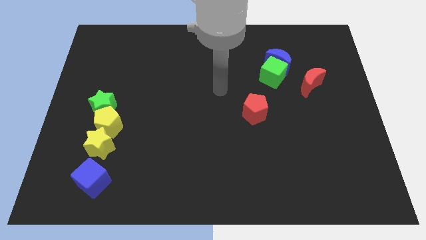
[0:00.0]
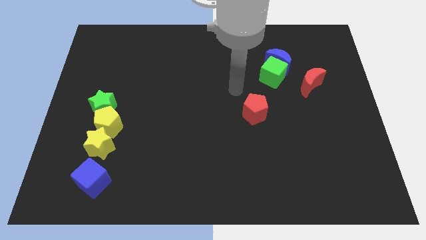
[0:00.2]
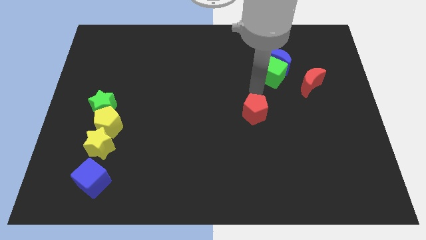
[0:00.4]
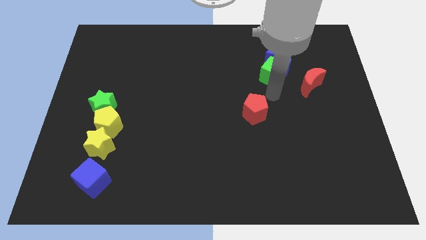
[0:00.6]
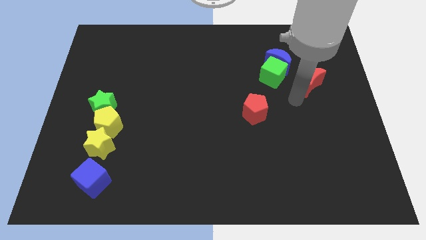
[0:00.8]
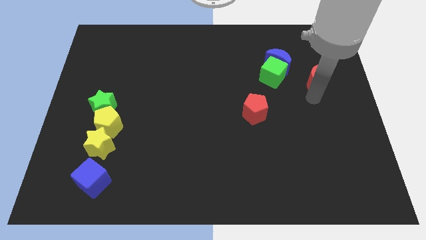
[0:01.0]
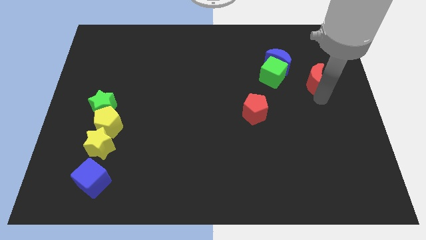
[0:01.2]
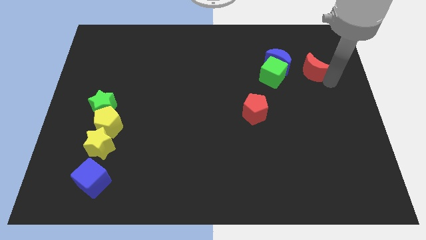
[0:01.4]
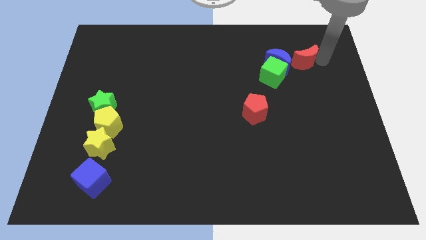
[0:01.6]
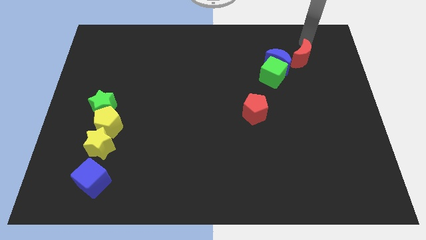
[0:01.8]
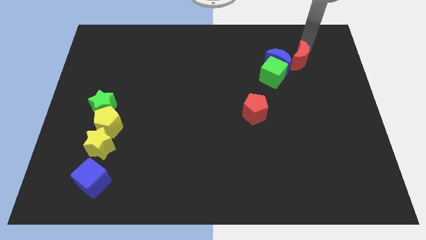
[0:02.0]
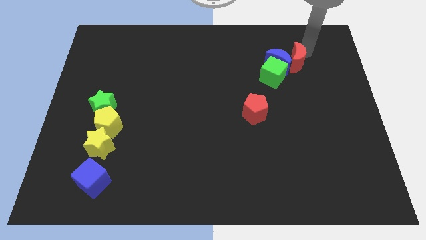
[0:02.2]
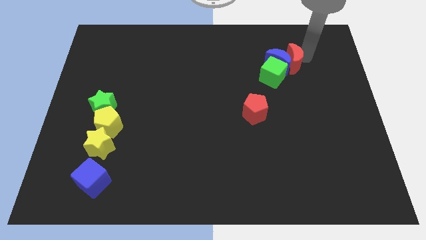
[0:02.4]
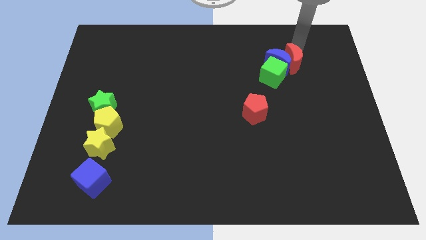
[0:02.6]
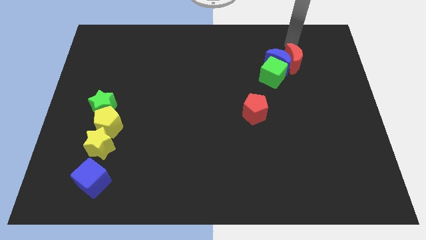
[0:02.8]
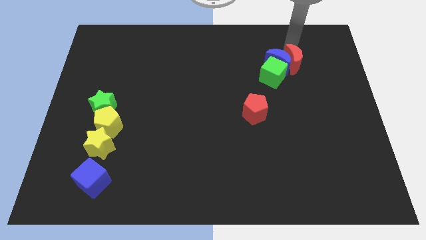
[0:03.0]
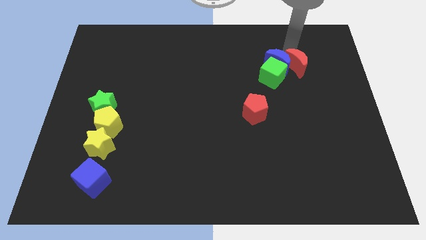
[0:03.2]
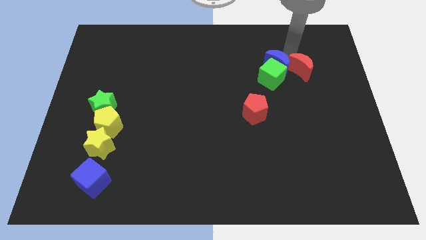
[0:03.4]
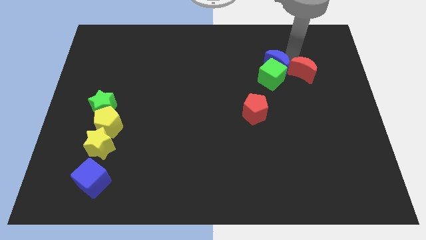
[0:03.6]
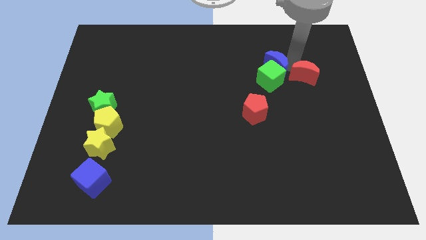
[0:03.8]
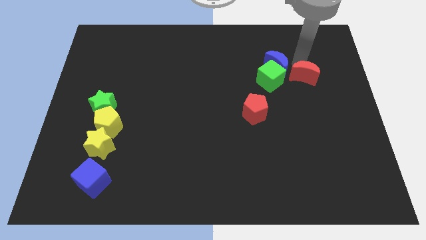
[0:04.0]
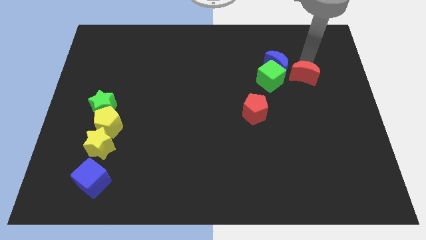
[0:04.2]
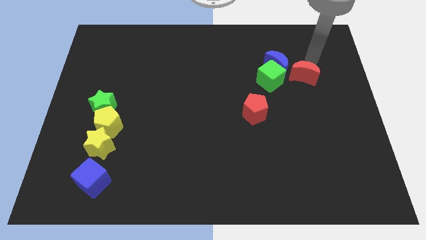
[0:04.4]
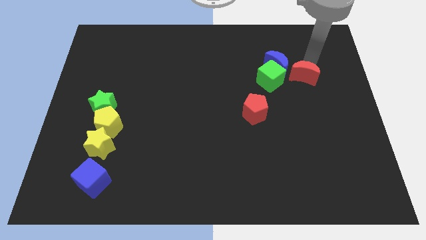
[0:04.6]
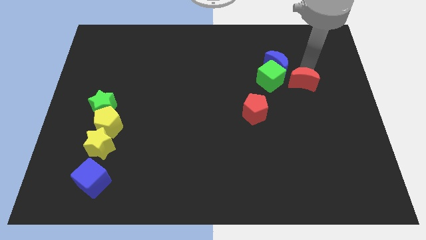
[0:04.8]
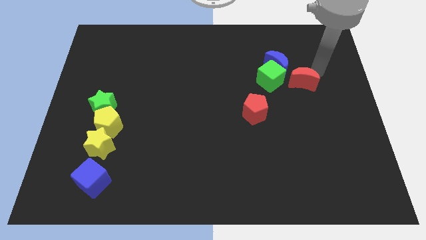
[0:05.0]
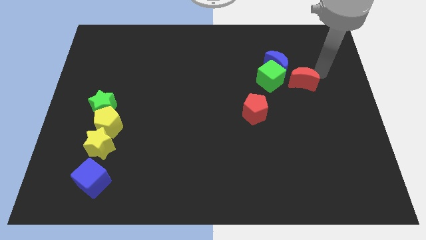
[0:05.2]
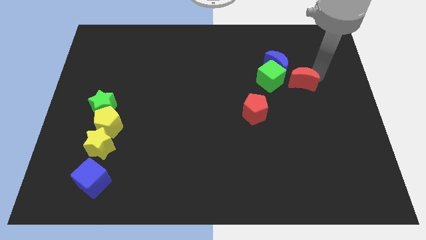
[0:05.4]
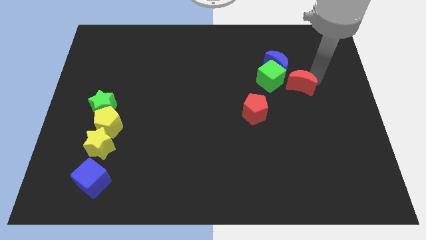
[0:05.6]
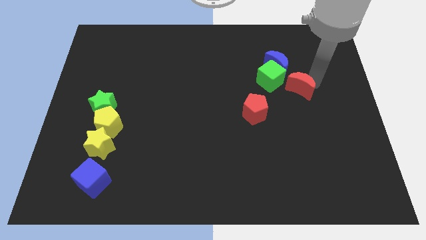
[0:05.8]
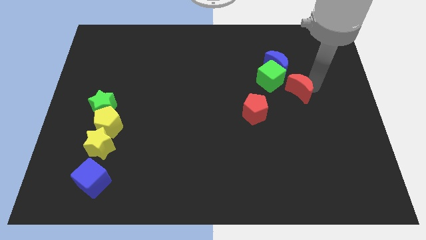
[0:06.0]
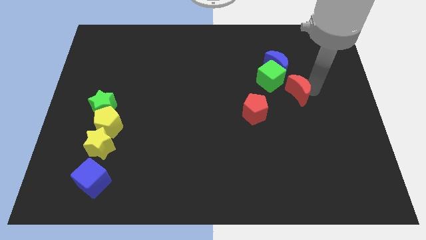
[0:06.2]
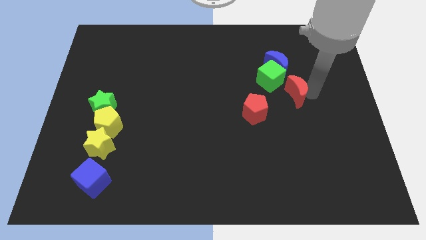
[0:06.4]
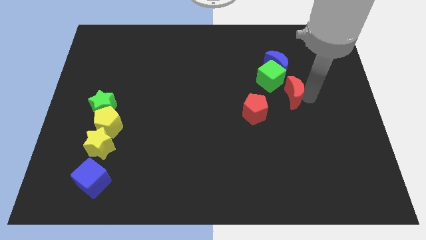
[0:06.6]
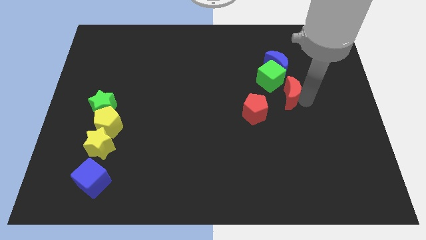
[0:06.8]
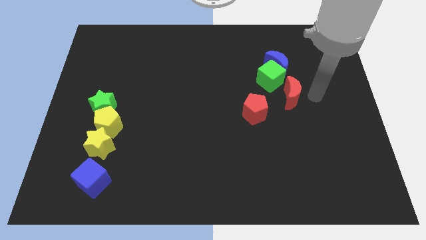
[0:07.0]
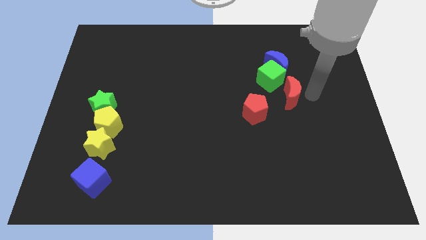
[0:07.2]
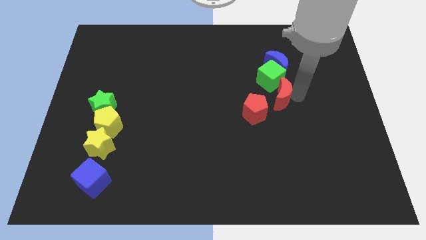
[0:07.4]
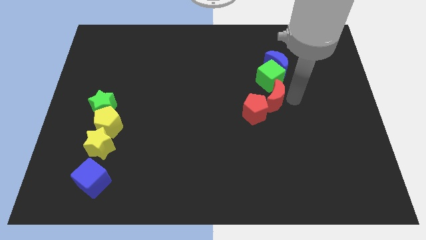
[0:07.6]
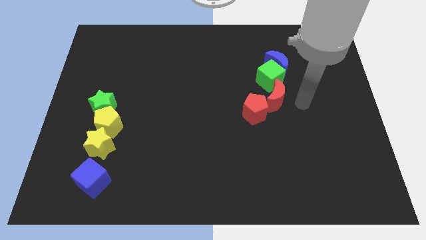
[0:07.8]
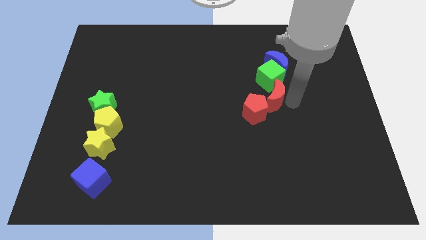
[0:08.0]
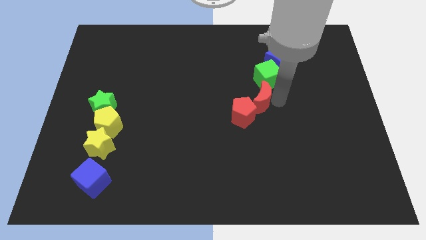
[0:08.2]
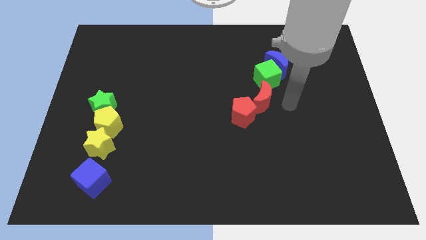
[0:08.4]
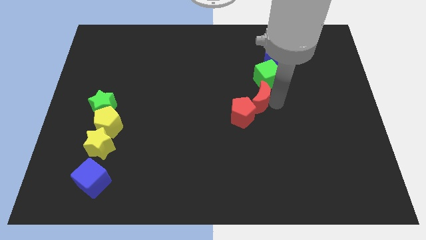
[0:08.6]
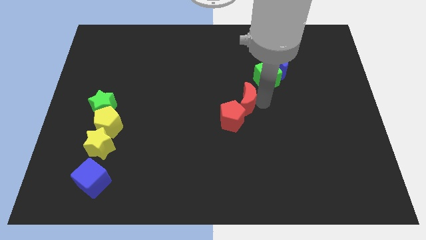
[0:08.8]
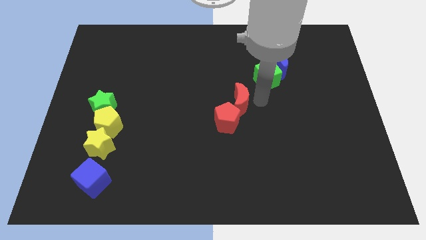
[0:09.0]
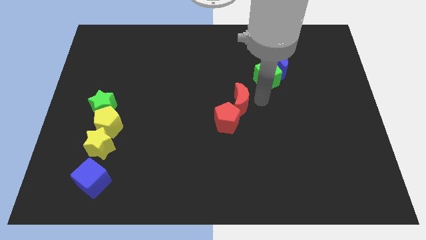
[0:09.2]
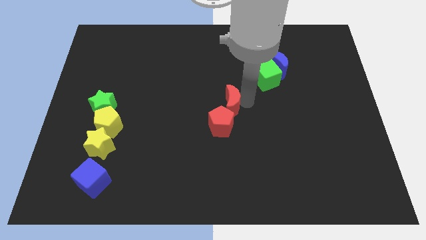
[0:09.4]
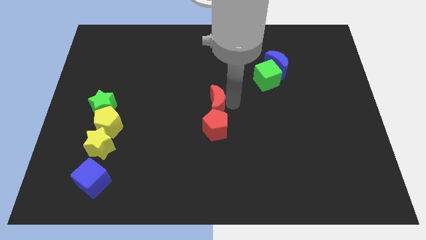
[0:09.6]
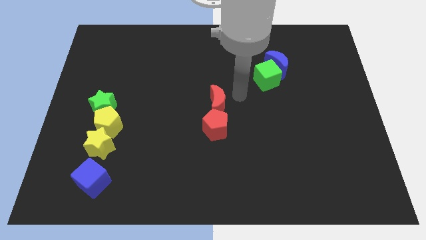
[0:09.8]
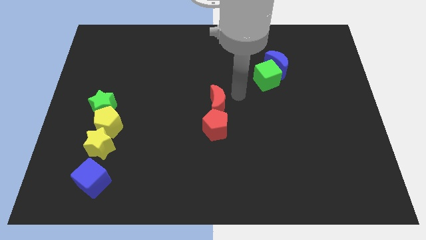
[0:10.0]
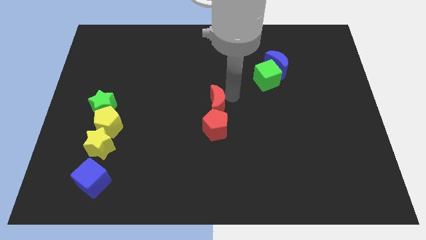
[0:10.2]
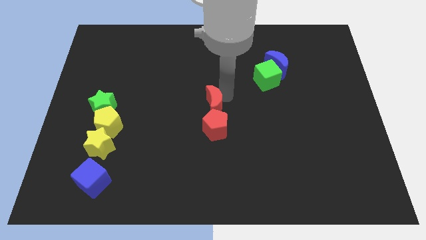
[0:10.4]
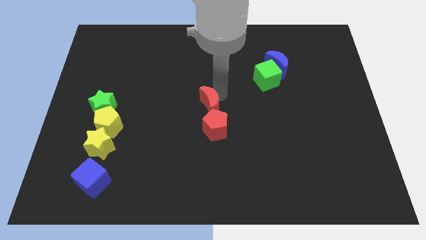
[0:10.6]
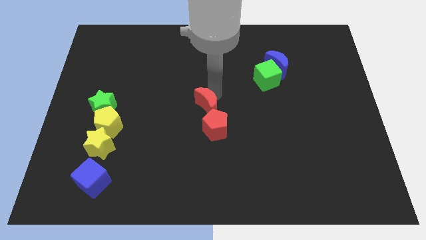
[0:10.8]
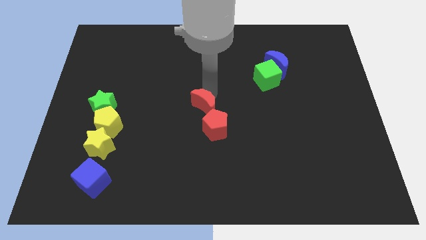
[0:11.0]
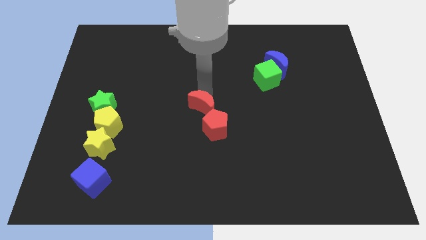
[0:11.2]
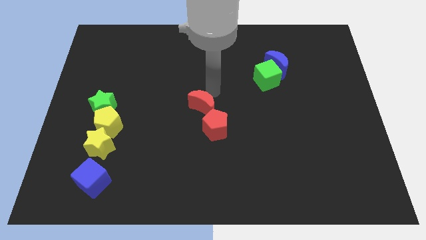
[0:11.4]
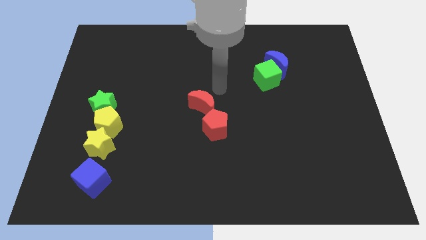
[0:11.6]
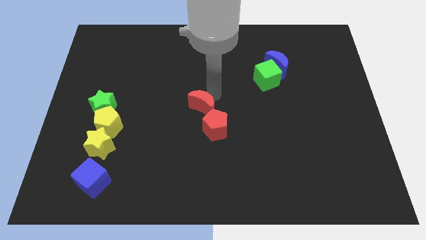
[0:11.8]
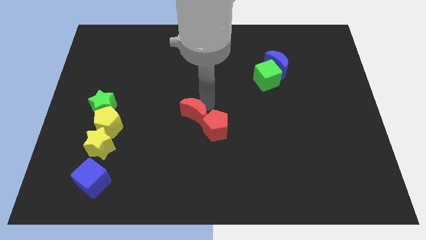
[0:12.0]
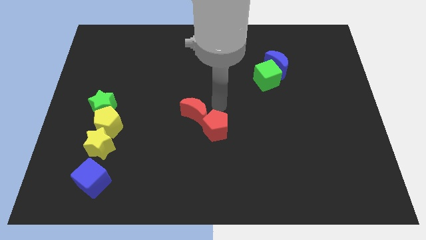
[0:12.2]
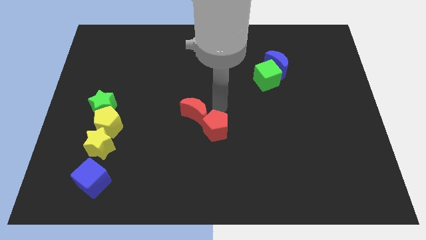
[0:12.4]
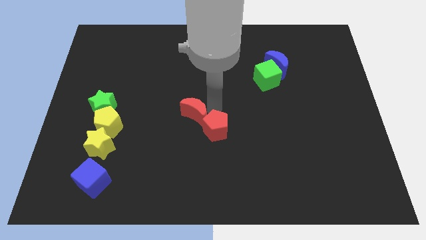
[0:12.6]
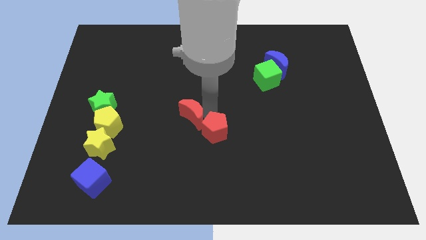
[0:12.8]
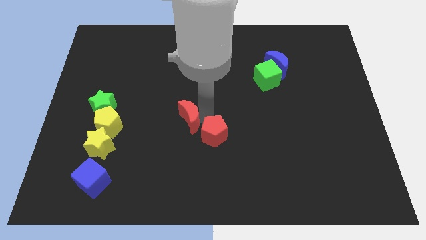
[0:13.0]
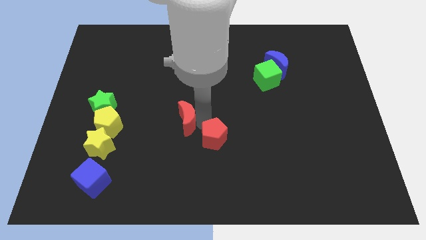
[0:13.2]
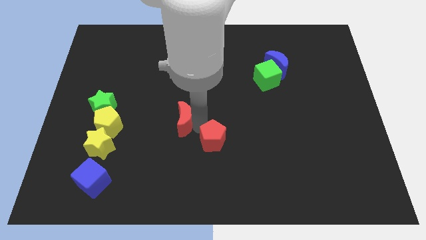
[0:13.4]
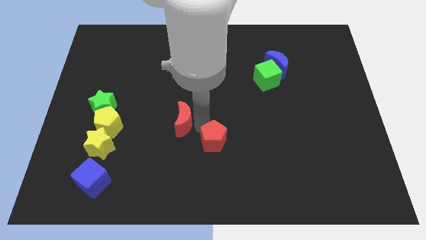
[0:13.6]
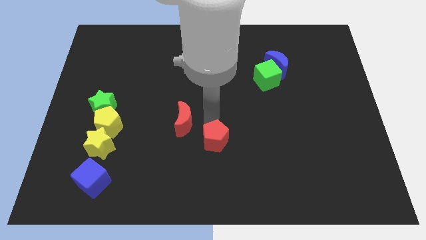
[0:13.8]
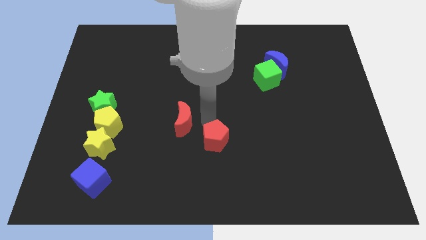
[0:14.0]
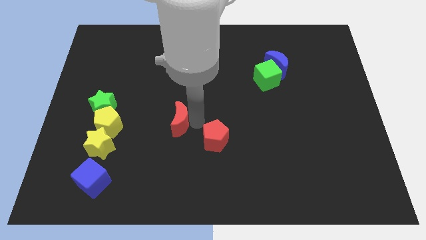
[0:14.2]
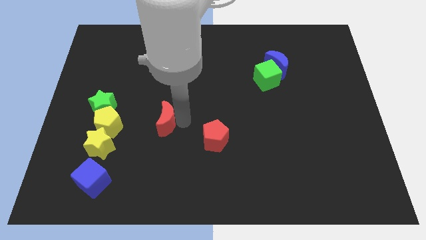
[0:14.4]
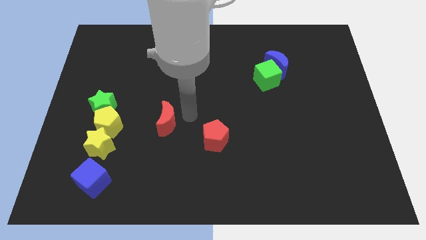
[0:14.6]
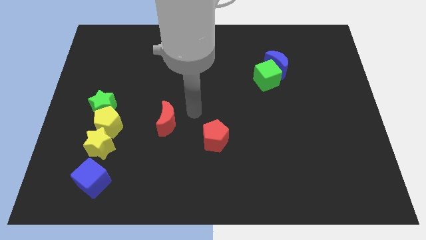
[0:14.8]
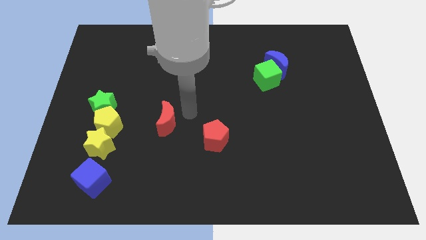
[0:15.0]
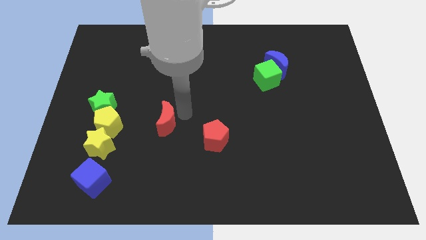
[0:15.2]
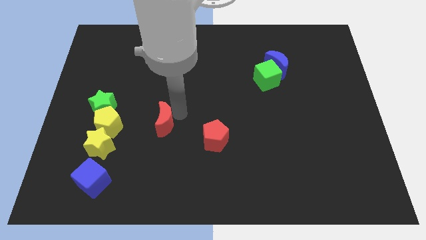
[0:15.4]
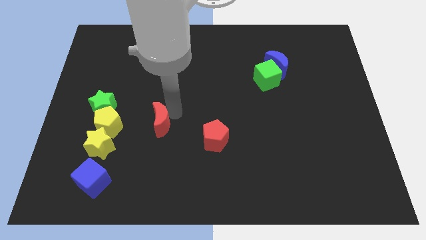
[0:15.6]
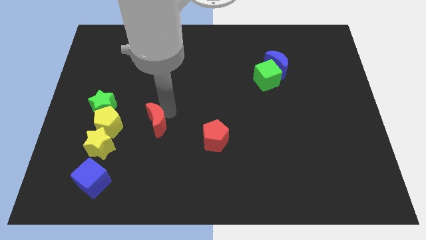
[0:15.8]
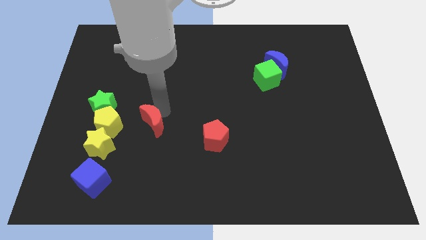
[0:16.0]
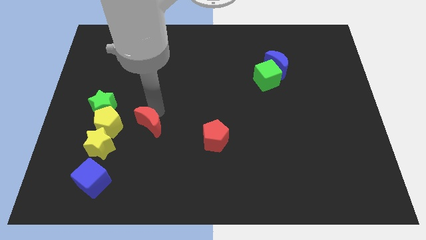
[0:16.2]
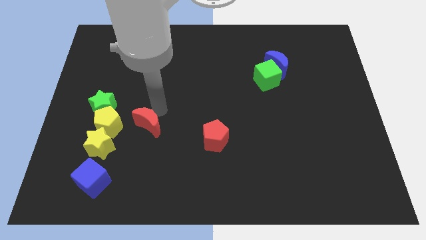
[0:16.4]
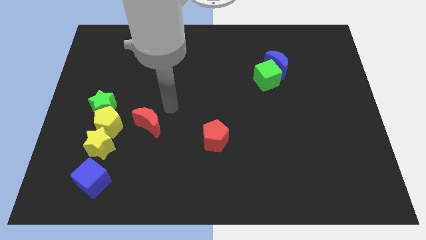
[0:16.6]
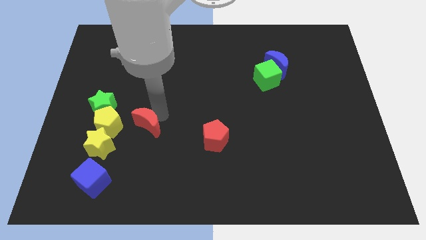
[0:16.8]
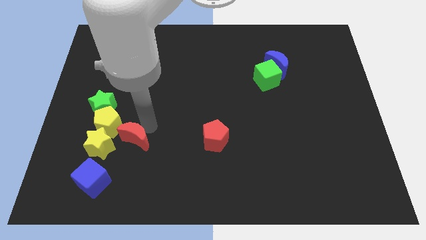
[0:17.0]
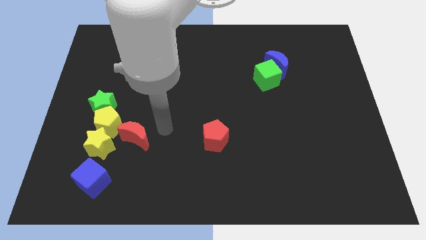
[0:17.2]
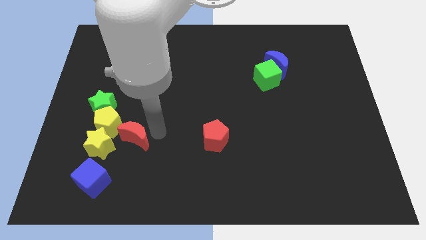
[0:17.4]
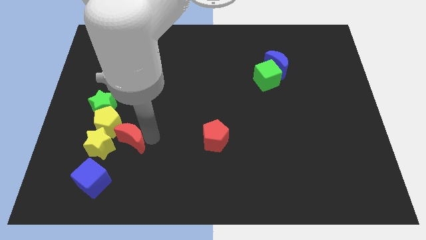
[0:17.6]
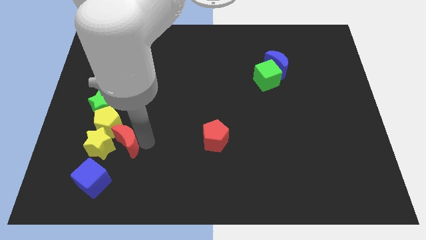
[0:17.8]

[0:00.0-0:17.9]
slide the red moon towards the yellow star
